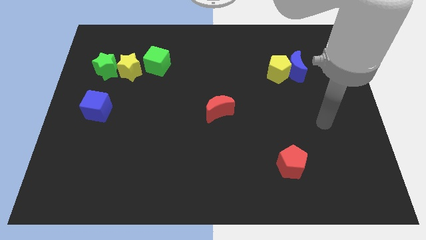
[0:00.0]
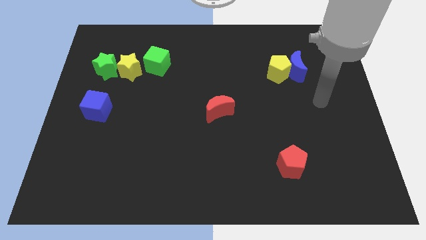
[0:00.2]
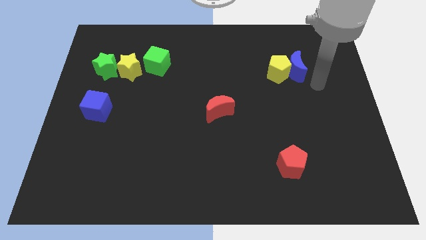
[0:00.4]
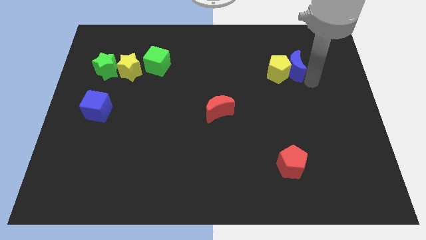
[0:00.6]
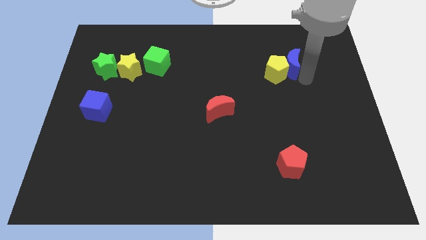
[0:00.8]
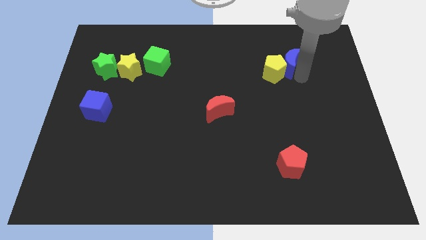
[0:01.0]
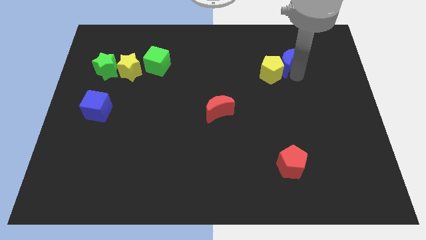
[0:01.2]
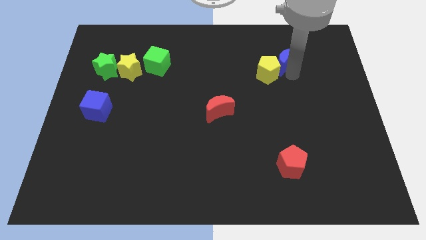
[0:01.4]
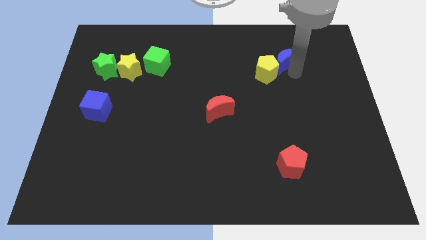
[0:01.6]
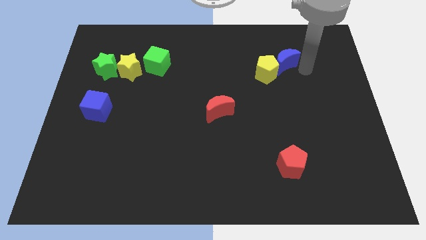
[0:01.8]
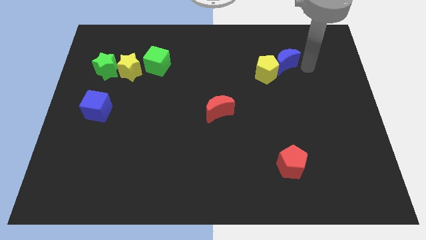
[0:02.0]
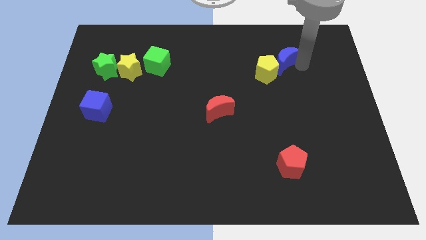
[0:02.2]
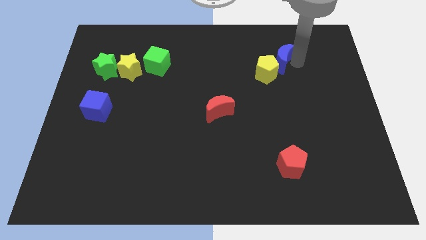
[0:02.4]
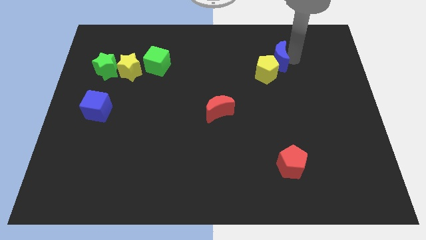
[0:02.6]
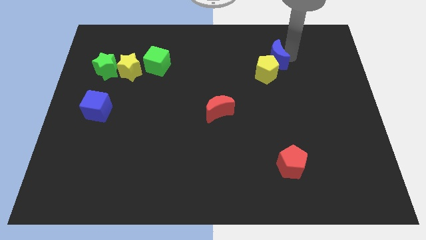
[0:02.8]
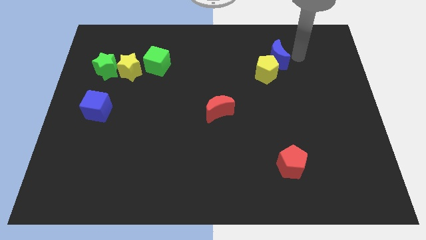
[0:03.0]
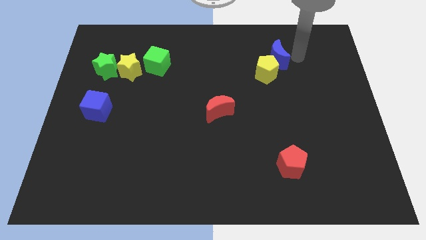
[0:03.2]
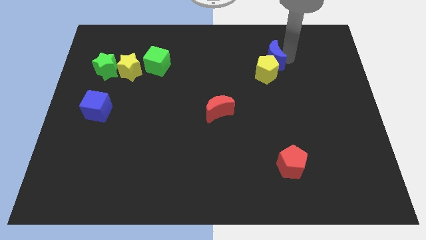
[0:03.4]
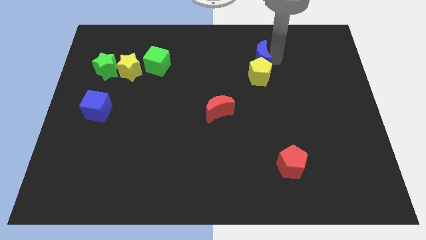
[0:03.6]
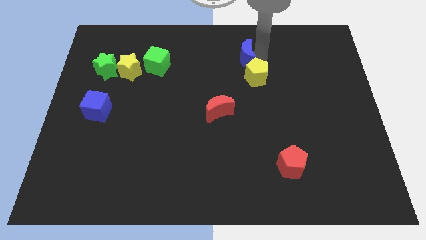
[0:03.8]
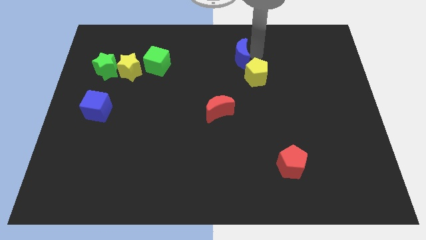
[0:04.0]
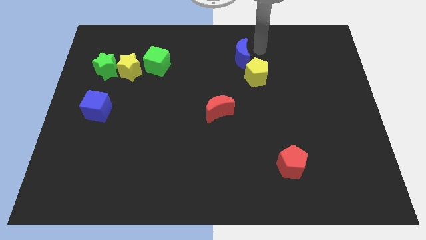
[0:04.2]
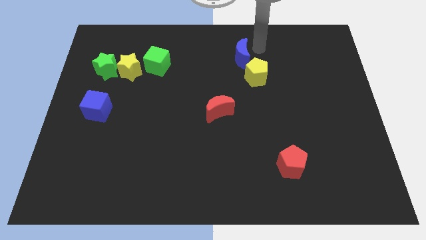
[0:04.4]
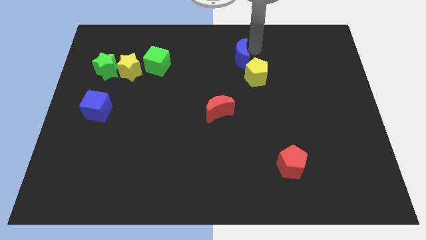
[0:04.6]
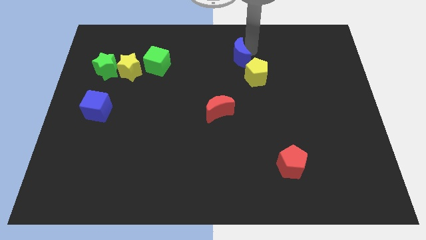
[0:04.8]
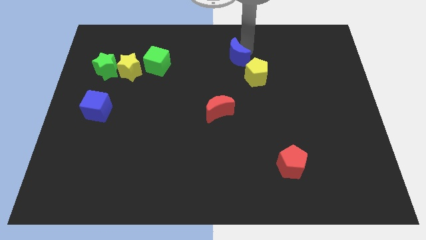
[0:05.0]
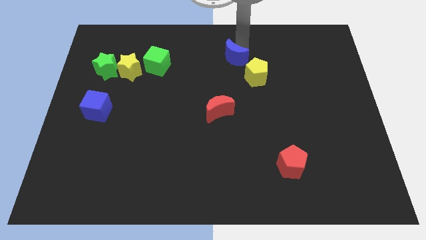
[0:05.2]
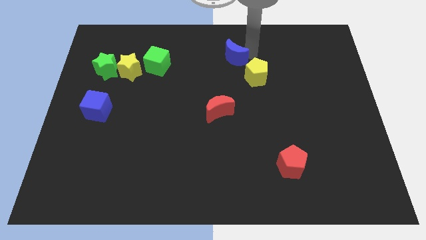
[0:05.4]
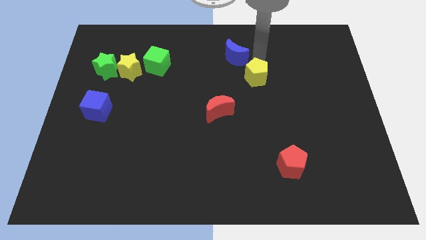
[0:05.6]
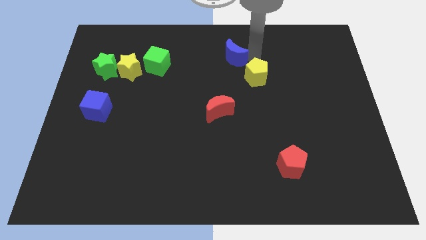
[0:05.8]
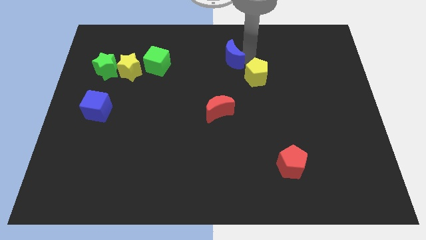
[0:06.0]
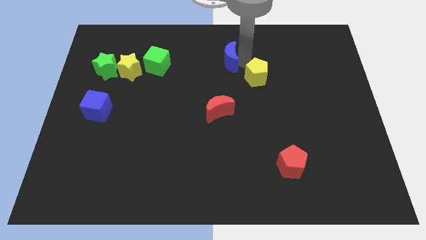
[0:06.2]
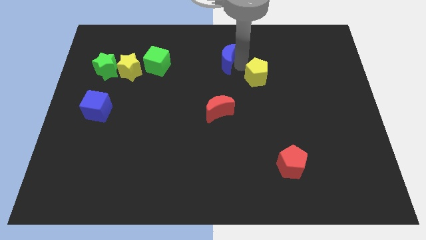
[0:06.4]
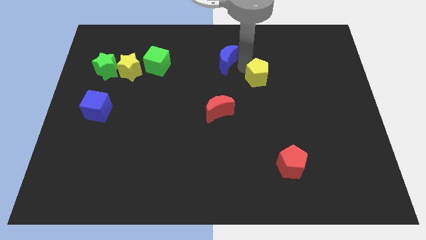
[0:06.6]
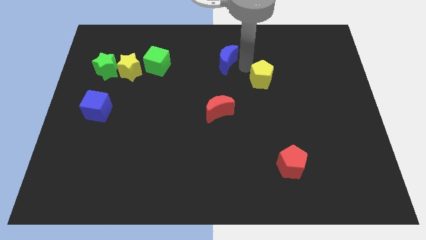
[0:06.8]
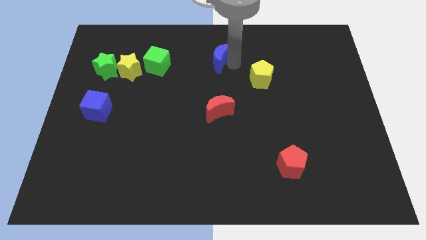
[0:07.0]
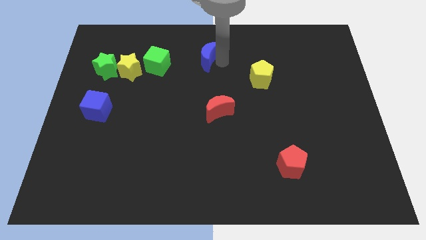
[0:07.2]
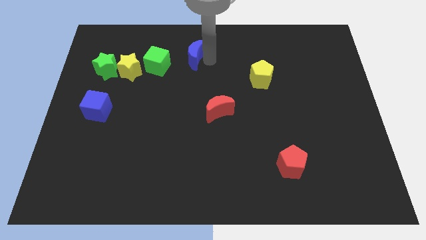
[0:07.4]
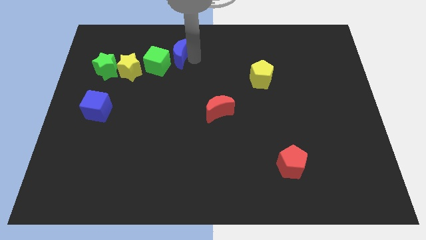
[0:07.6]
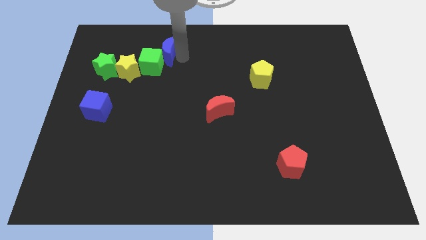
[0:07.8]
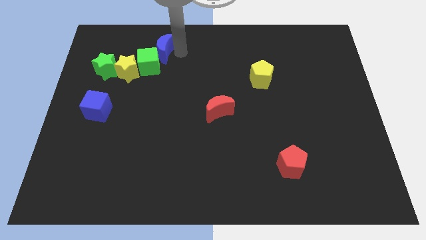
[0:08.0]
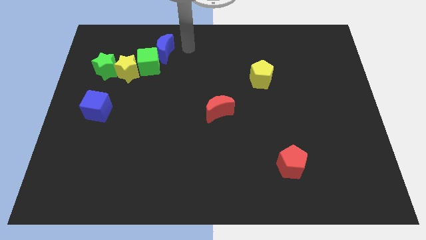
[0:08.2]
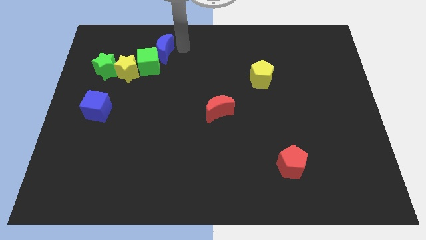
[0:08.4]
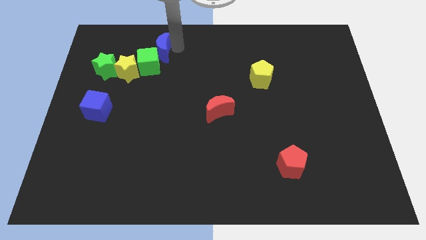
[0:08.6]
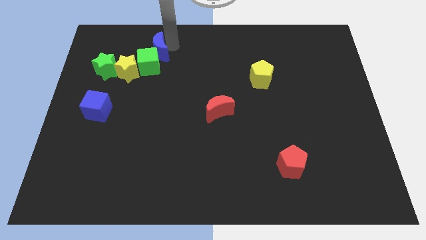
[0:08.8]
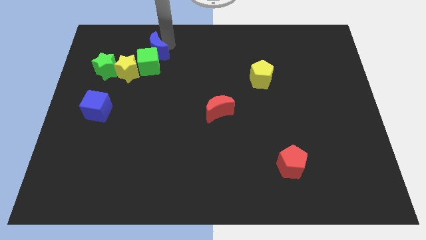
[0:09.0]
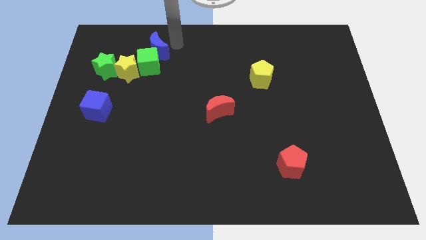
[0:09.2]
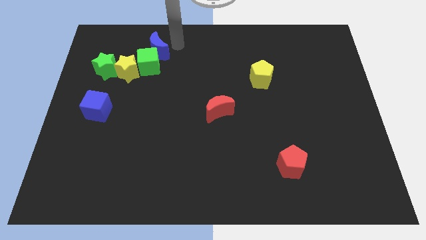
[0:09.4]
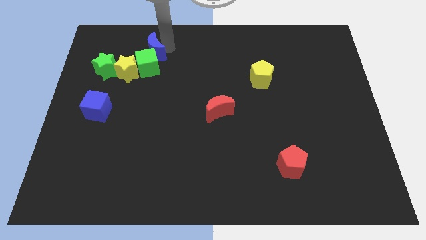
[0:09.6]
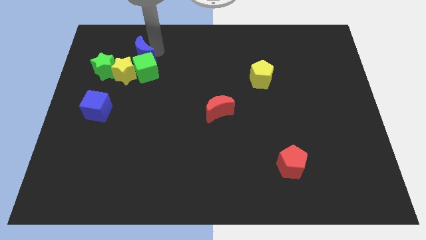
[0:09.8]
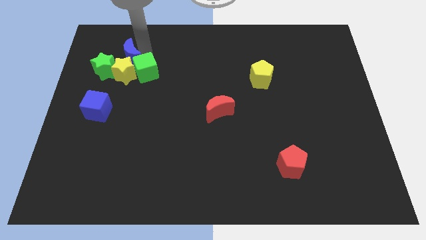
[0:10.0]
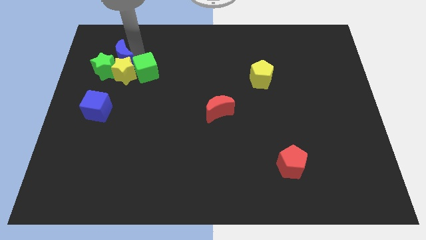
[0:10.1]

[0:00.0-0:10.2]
slide the blue moon towards the green star

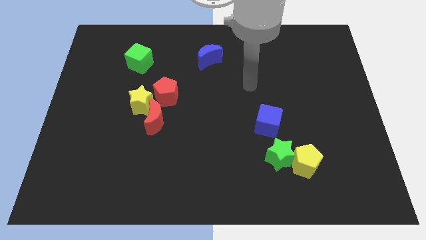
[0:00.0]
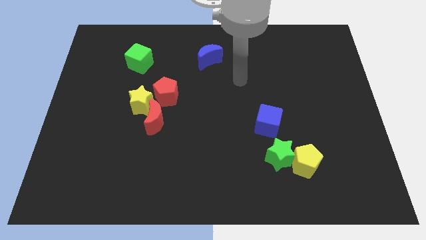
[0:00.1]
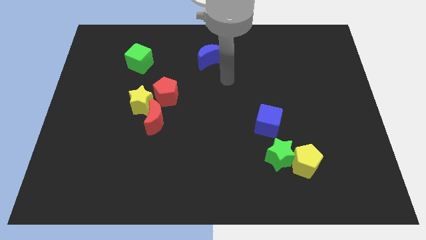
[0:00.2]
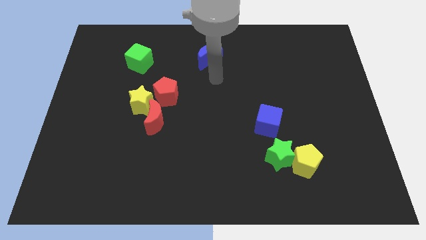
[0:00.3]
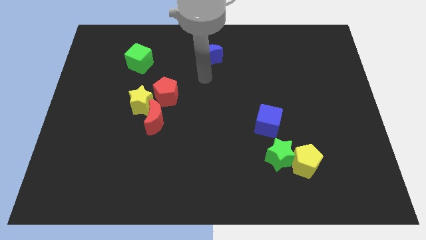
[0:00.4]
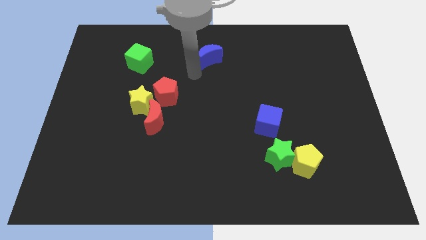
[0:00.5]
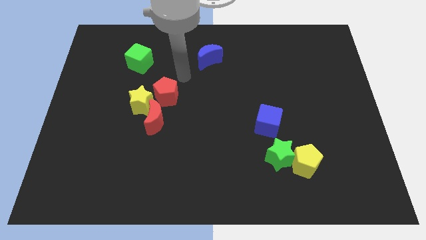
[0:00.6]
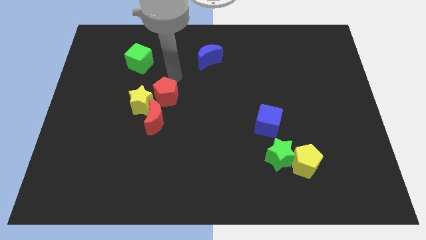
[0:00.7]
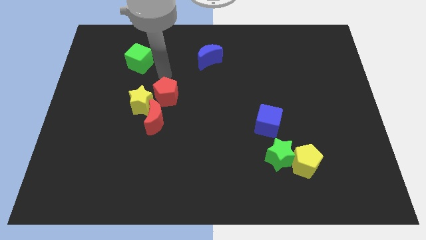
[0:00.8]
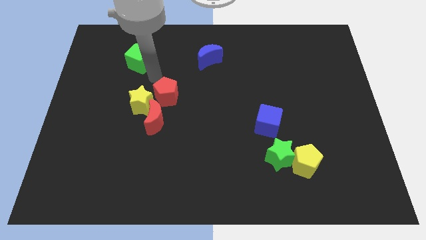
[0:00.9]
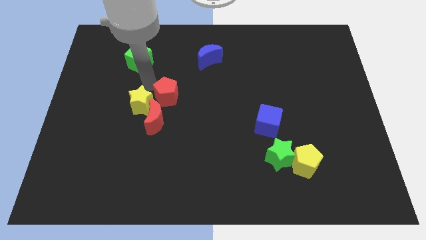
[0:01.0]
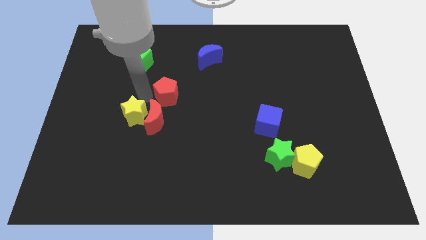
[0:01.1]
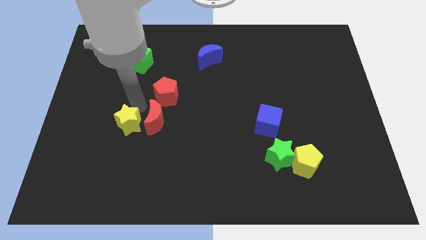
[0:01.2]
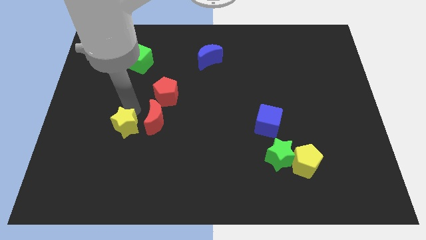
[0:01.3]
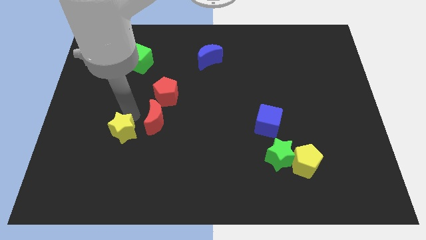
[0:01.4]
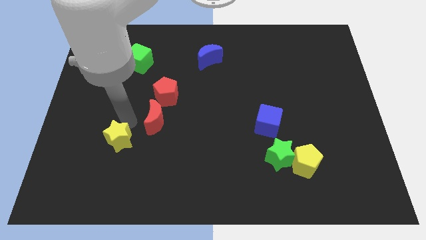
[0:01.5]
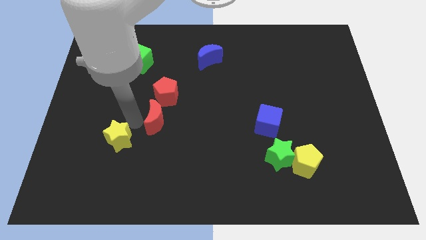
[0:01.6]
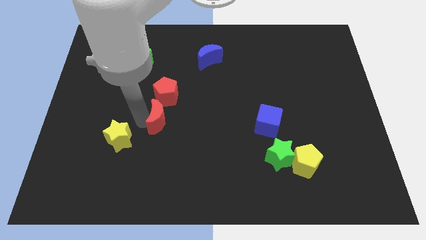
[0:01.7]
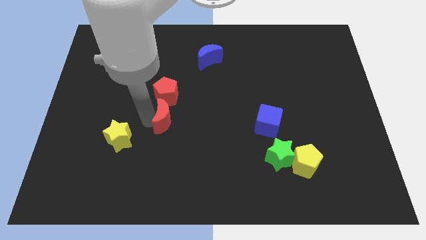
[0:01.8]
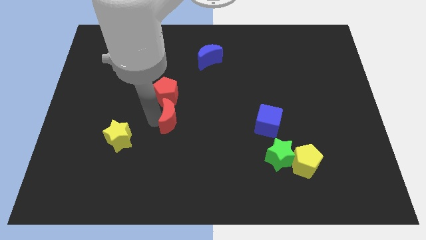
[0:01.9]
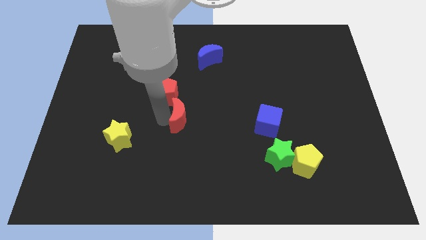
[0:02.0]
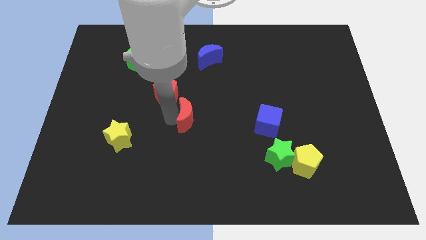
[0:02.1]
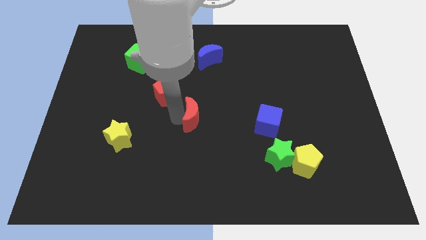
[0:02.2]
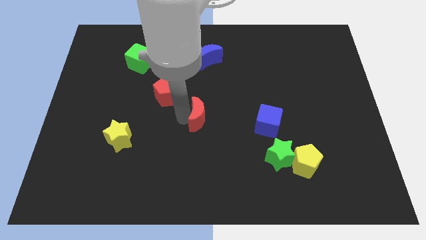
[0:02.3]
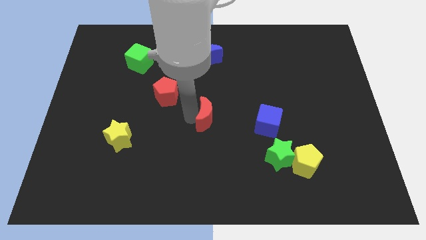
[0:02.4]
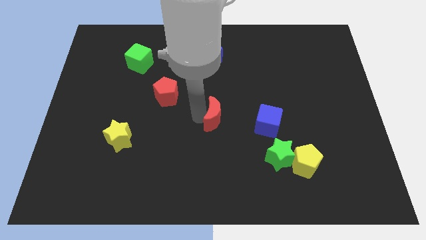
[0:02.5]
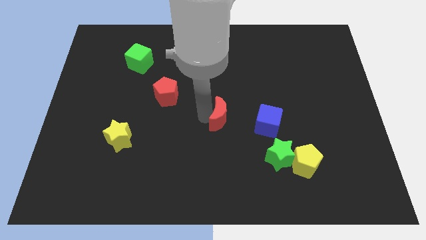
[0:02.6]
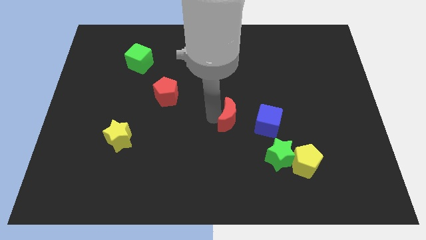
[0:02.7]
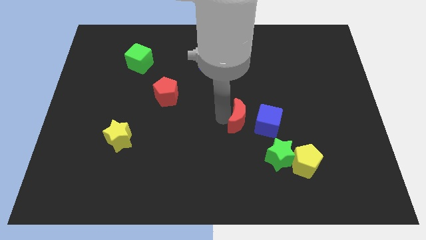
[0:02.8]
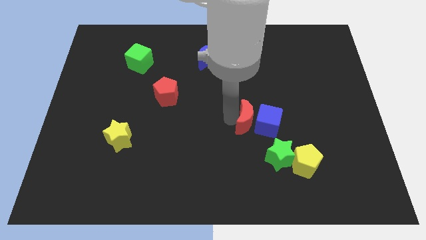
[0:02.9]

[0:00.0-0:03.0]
push the red moon towards the blue cube
